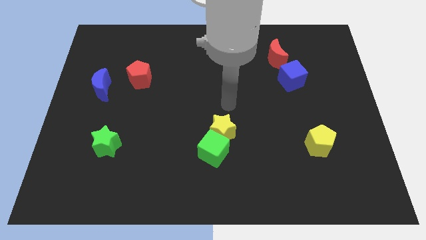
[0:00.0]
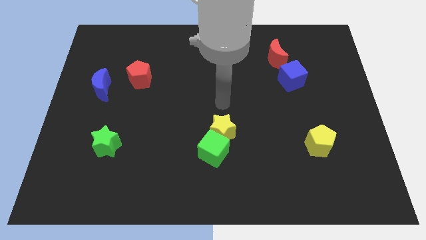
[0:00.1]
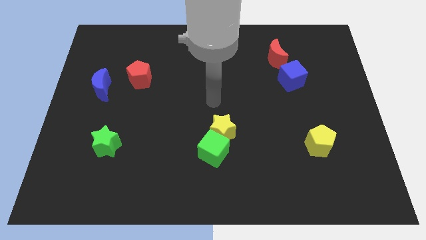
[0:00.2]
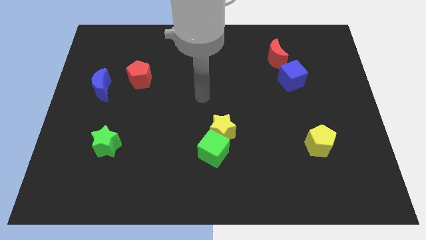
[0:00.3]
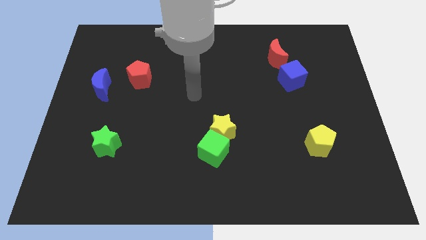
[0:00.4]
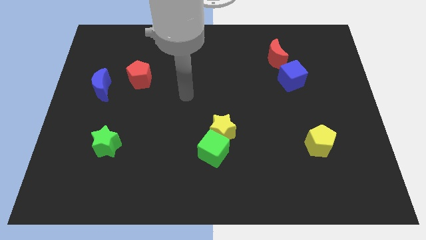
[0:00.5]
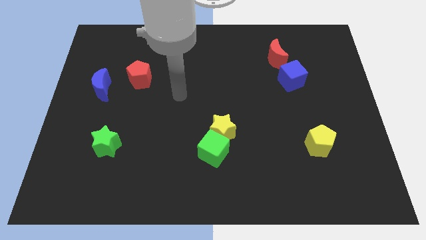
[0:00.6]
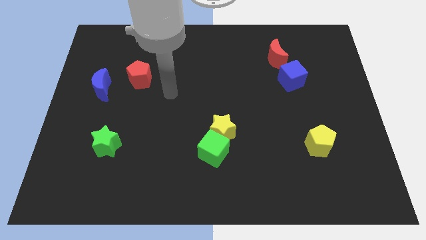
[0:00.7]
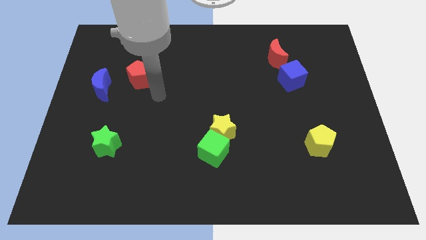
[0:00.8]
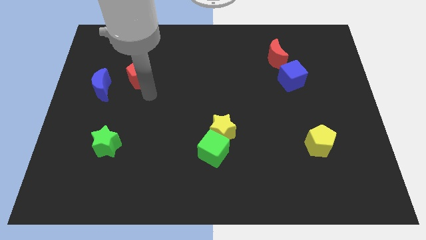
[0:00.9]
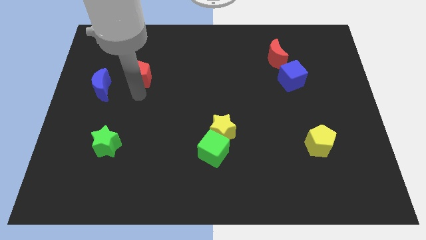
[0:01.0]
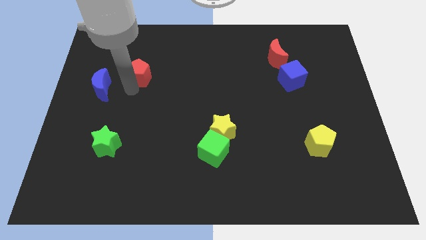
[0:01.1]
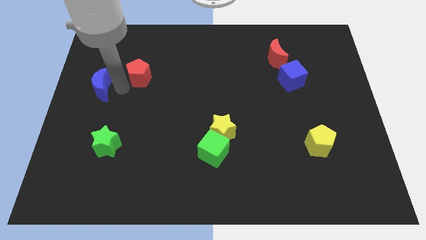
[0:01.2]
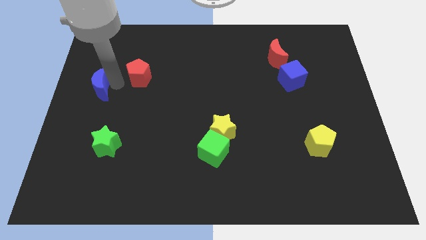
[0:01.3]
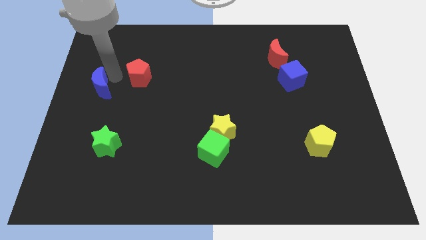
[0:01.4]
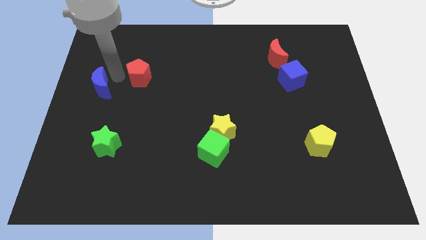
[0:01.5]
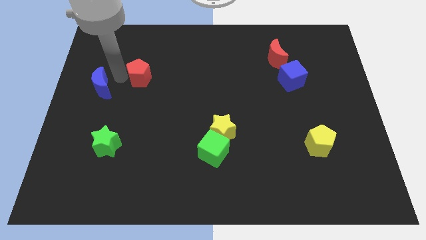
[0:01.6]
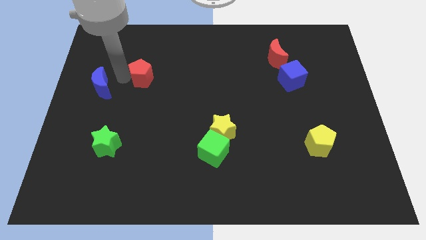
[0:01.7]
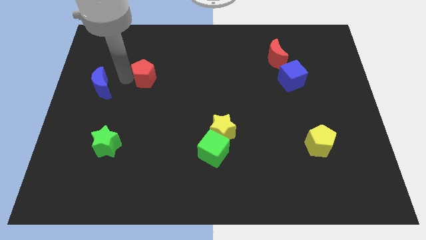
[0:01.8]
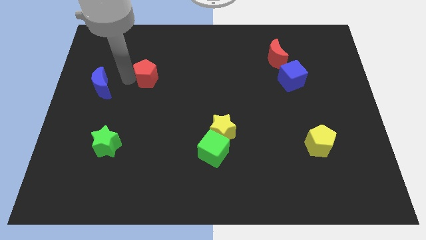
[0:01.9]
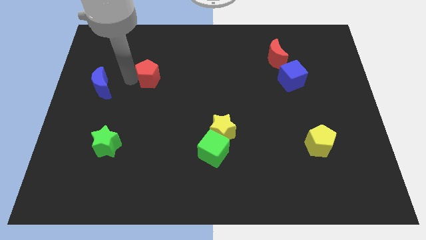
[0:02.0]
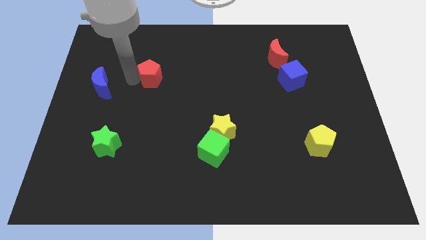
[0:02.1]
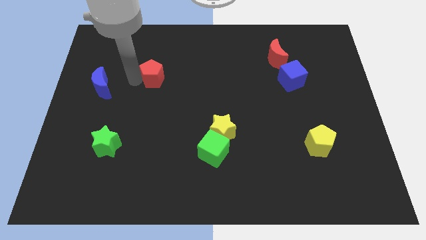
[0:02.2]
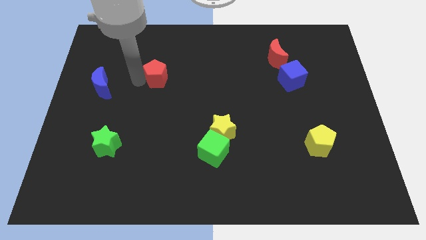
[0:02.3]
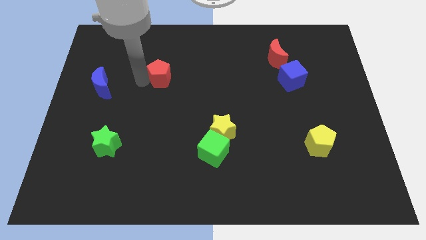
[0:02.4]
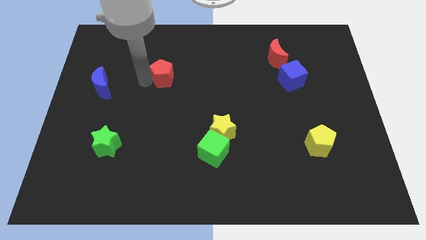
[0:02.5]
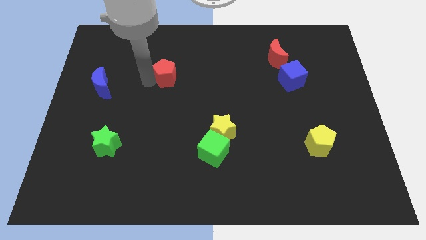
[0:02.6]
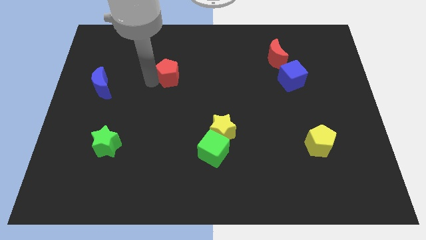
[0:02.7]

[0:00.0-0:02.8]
move the red pentagon right somewhat

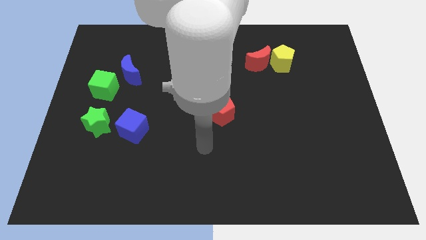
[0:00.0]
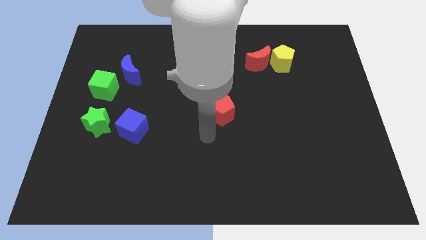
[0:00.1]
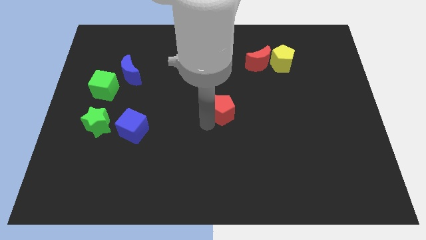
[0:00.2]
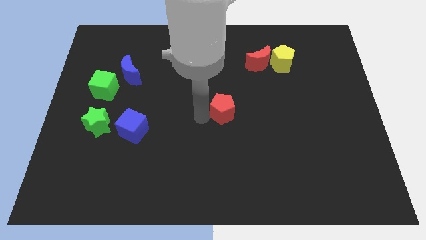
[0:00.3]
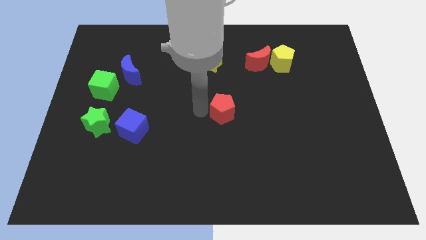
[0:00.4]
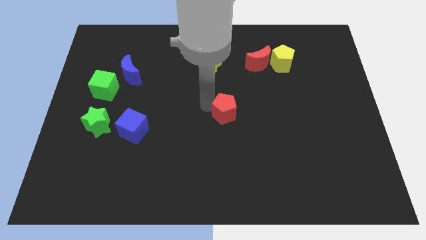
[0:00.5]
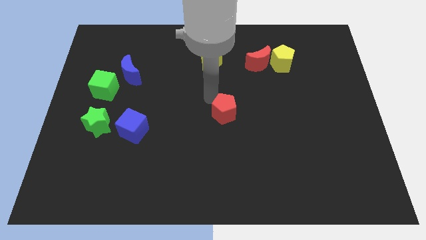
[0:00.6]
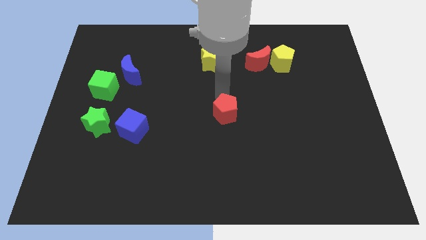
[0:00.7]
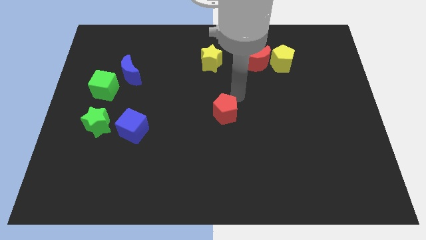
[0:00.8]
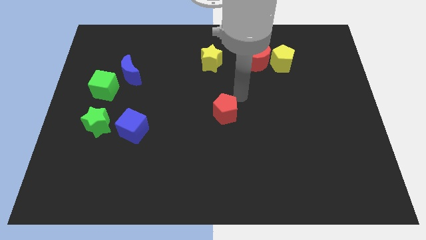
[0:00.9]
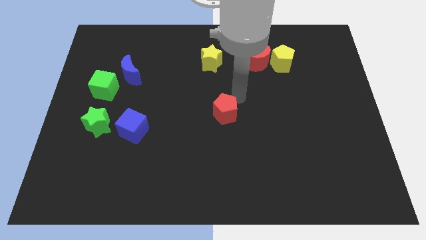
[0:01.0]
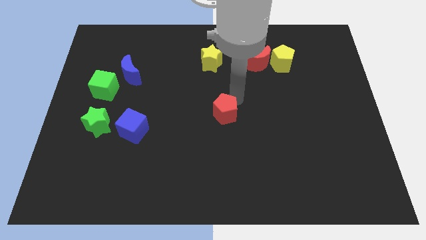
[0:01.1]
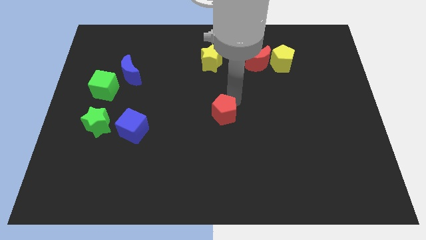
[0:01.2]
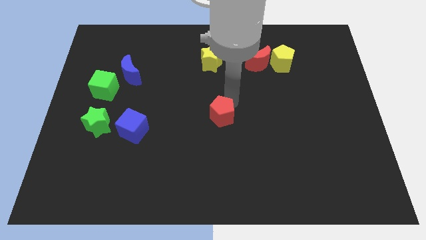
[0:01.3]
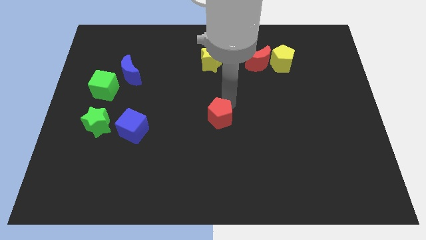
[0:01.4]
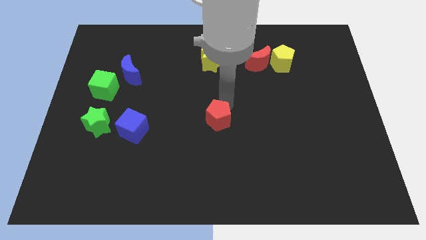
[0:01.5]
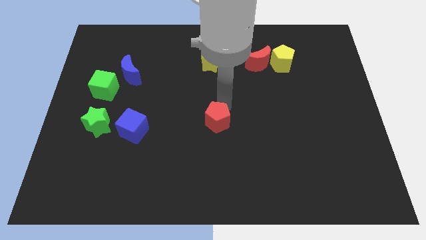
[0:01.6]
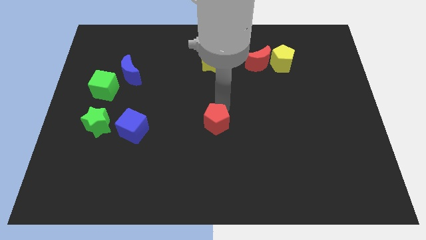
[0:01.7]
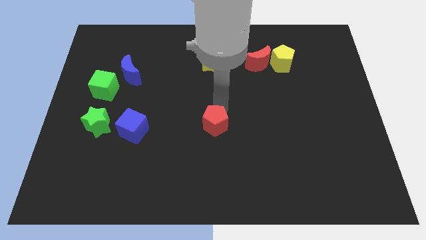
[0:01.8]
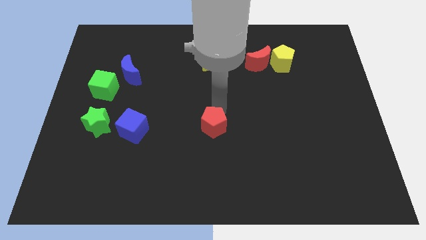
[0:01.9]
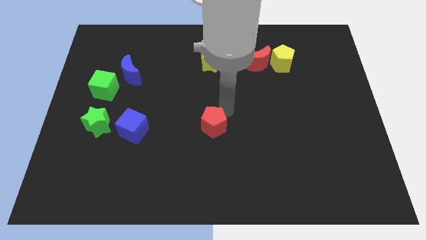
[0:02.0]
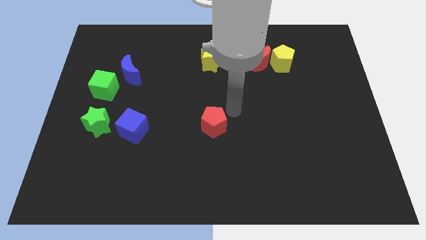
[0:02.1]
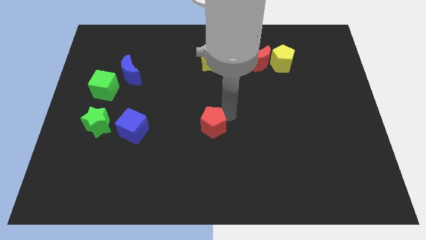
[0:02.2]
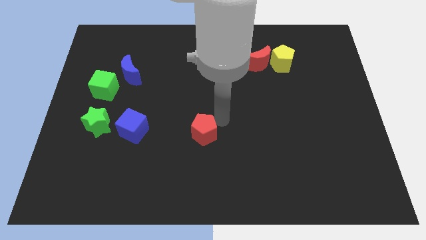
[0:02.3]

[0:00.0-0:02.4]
slide the red pentagon diagonally down and to the left a little

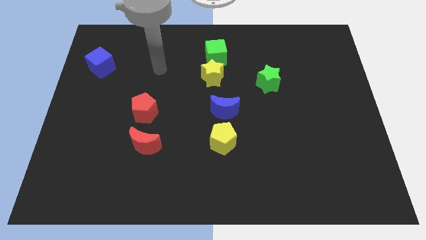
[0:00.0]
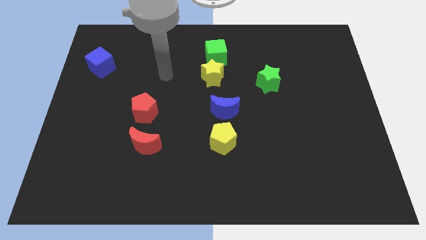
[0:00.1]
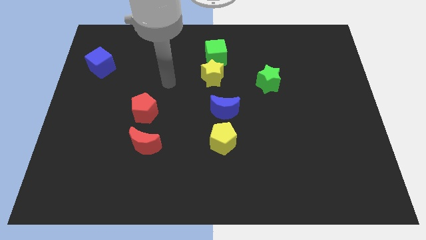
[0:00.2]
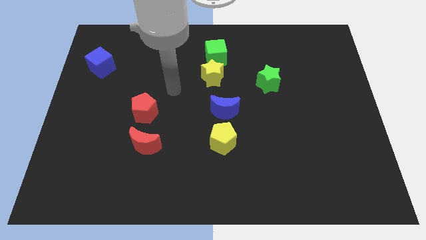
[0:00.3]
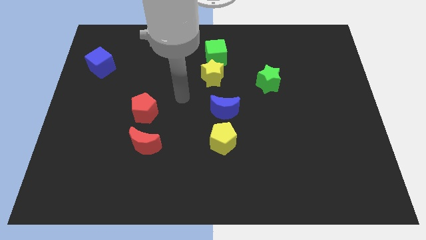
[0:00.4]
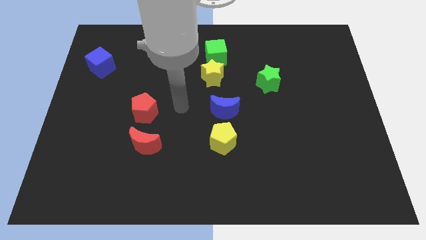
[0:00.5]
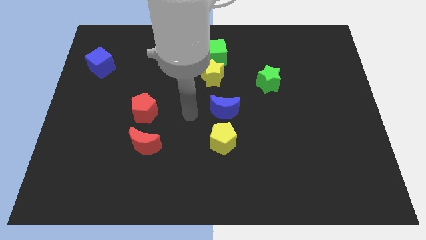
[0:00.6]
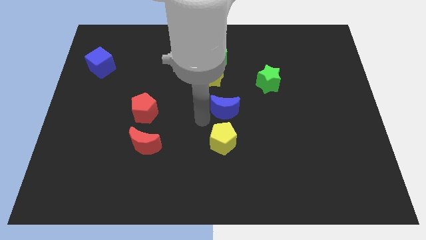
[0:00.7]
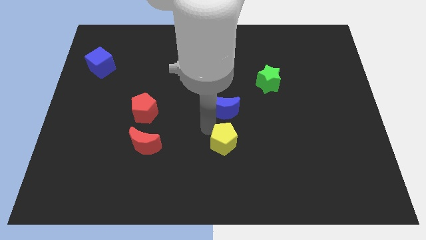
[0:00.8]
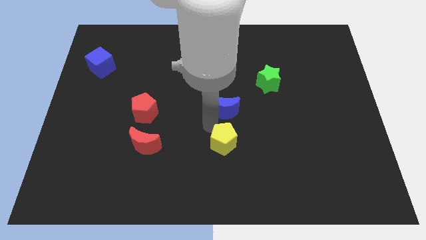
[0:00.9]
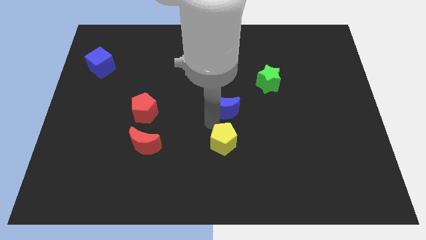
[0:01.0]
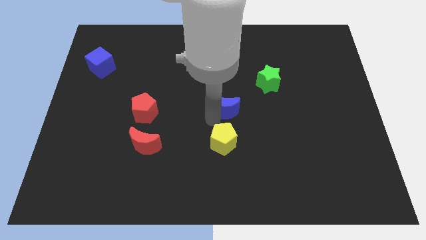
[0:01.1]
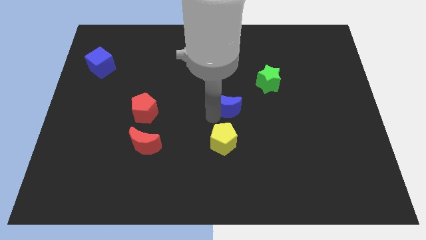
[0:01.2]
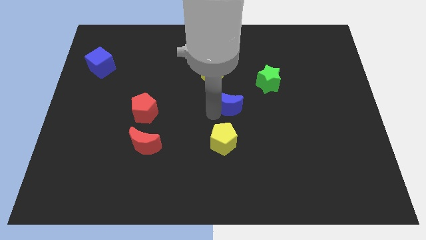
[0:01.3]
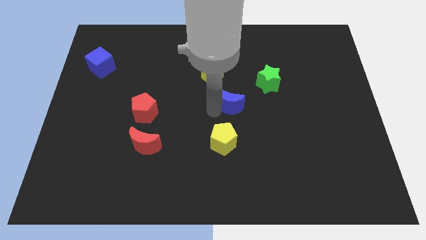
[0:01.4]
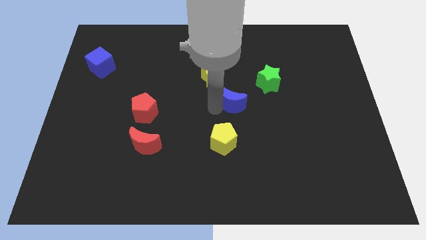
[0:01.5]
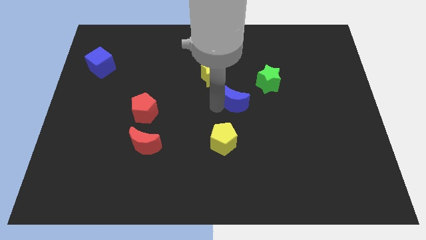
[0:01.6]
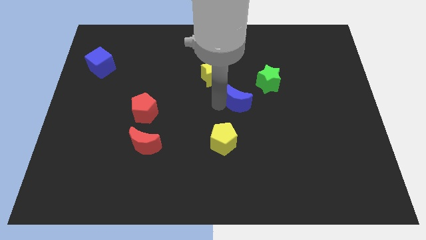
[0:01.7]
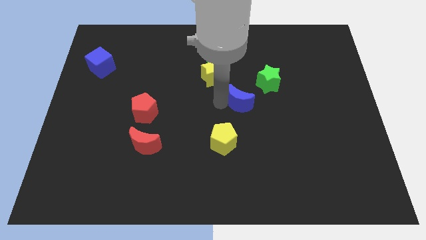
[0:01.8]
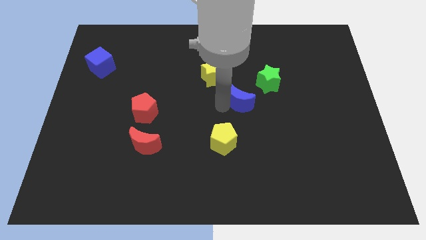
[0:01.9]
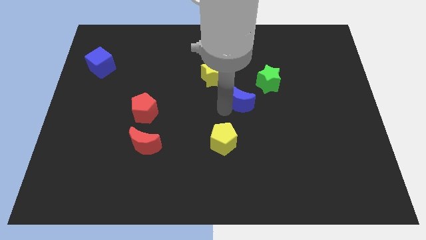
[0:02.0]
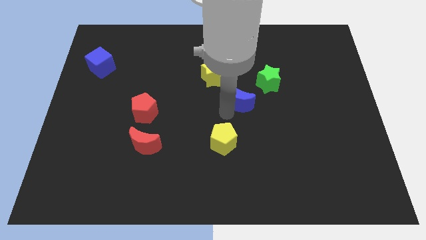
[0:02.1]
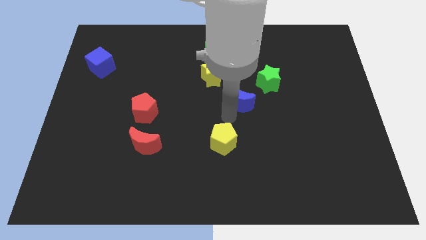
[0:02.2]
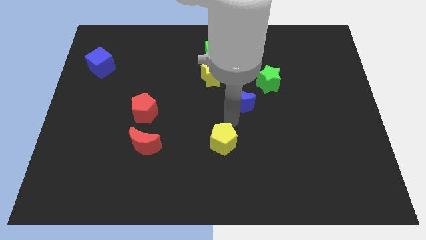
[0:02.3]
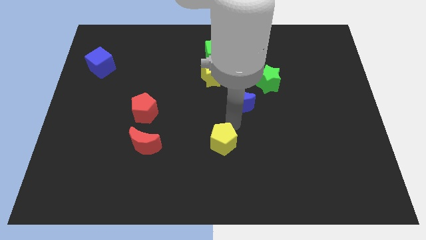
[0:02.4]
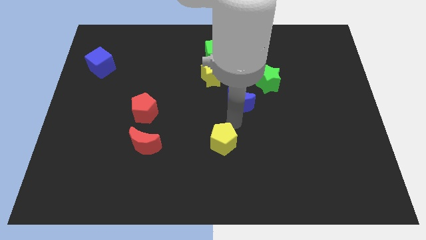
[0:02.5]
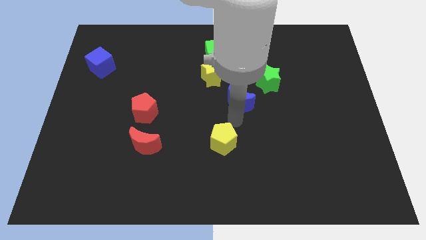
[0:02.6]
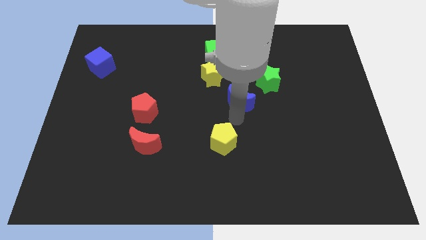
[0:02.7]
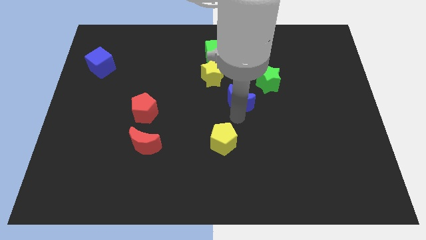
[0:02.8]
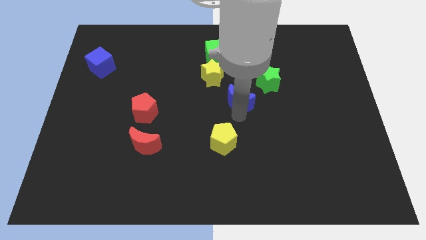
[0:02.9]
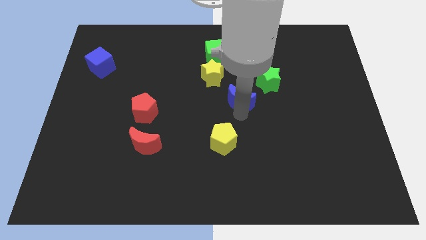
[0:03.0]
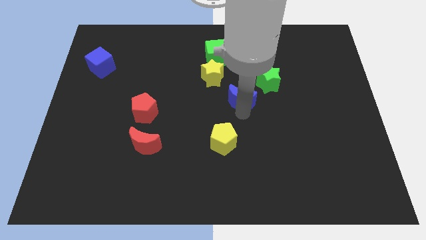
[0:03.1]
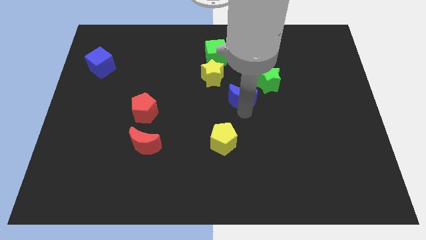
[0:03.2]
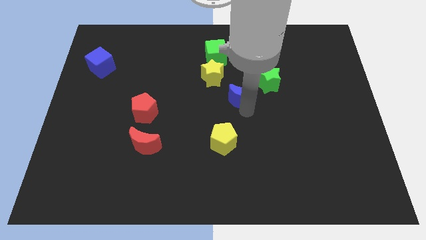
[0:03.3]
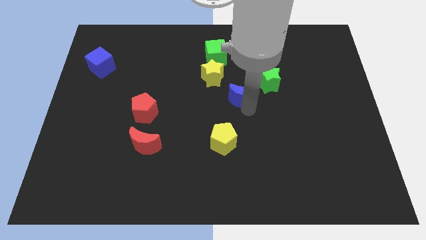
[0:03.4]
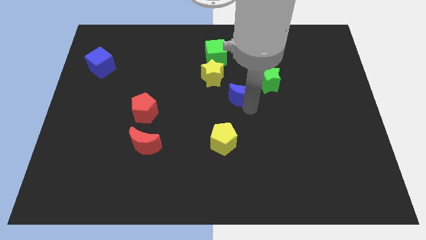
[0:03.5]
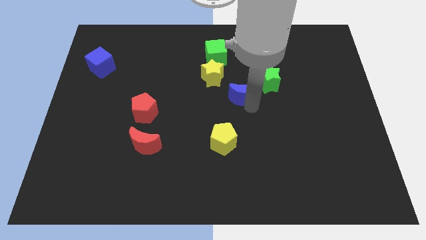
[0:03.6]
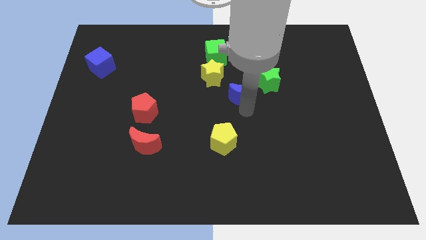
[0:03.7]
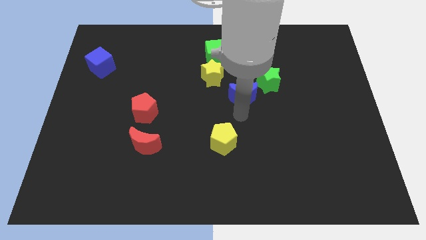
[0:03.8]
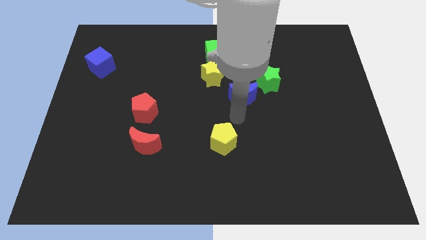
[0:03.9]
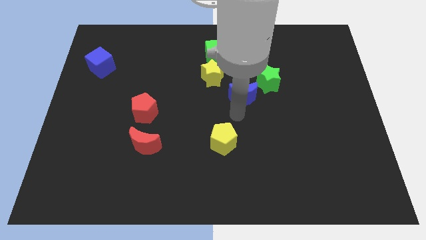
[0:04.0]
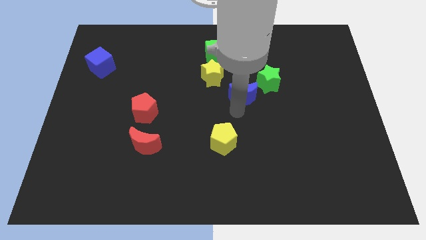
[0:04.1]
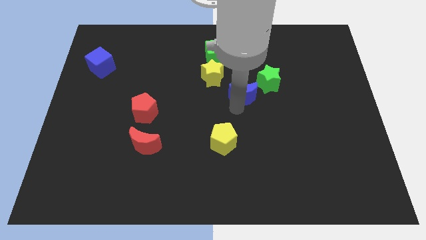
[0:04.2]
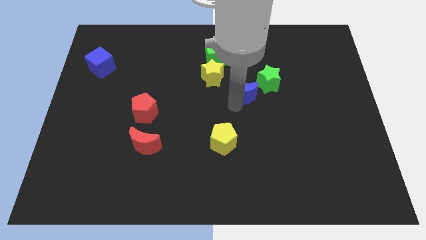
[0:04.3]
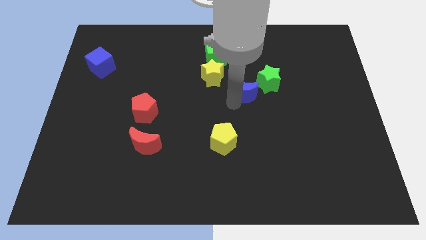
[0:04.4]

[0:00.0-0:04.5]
slide the blue moon upwards and to the right diagonally somewhat
